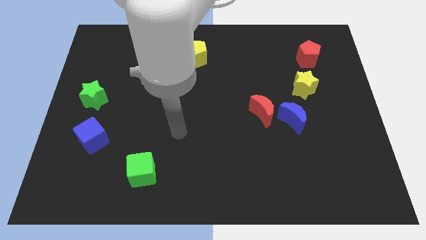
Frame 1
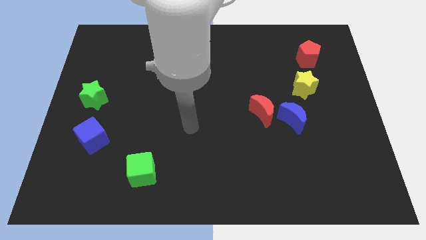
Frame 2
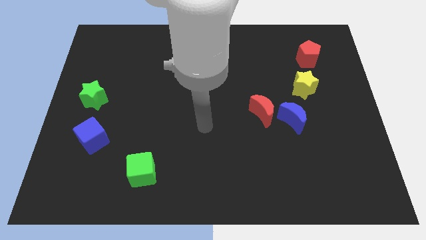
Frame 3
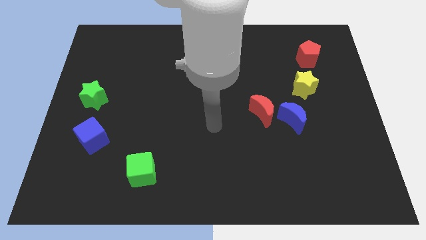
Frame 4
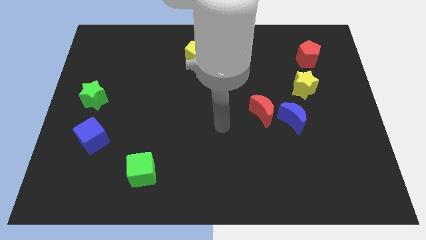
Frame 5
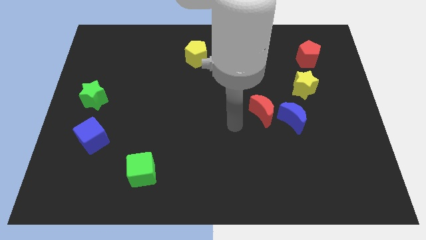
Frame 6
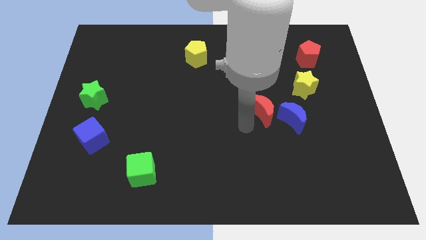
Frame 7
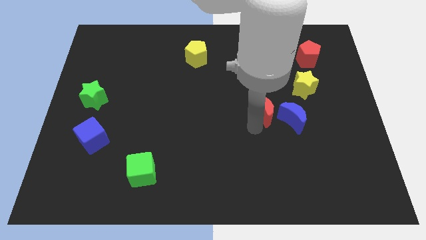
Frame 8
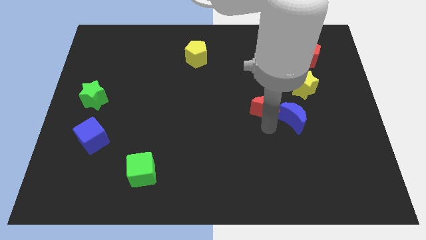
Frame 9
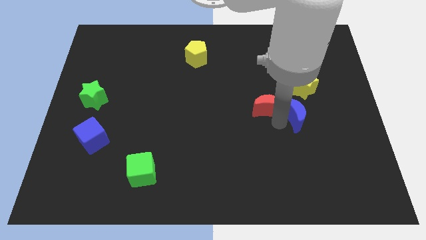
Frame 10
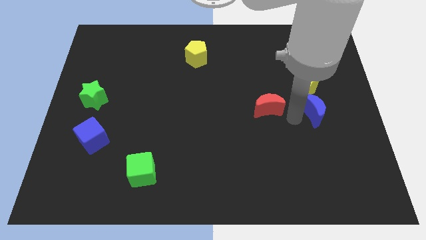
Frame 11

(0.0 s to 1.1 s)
separate the red moon from the blue moon

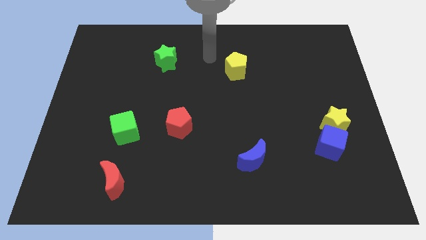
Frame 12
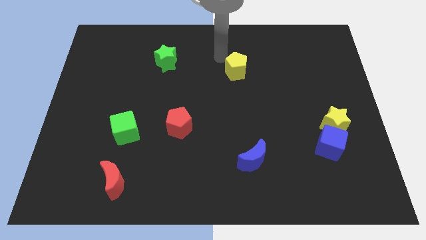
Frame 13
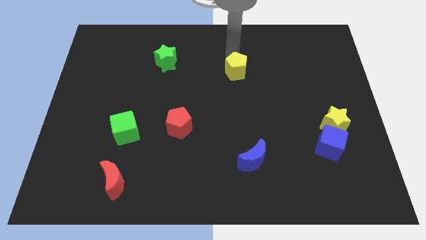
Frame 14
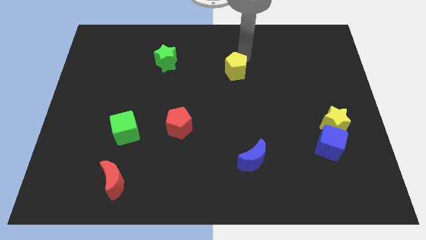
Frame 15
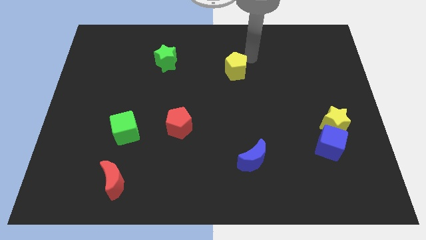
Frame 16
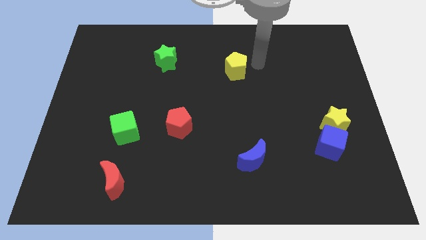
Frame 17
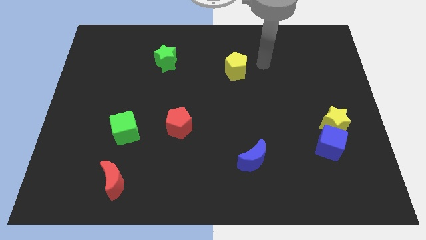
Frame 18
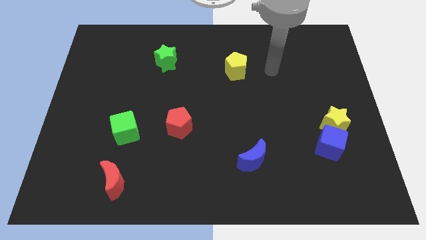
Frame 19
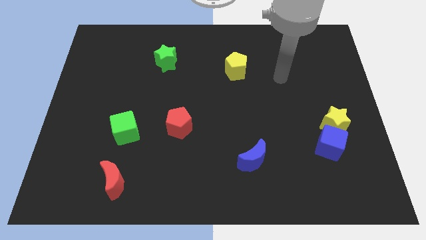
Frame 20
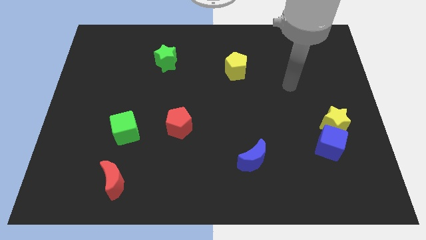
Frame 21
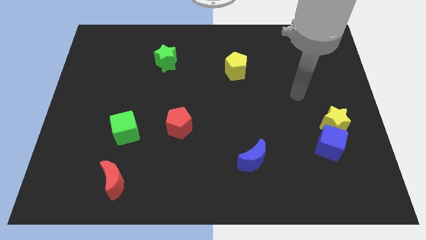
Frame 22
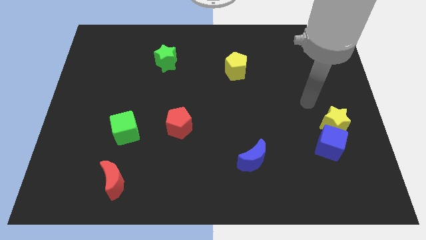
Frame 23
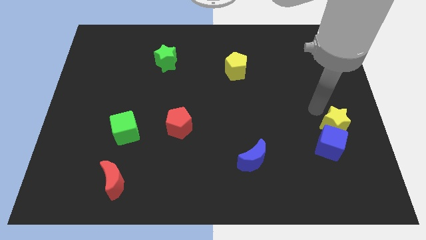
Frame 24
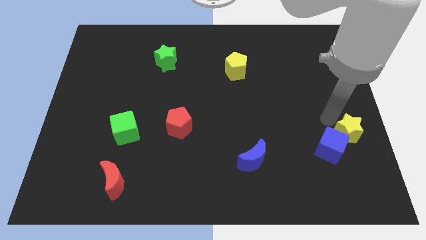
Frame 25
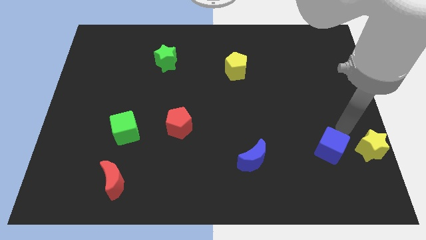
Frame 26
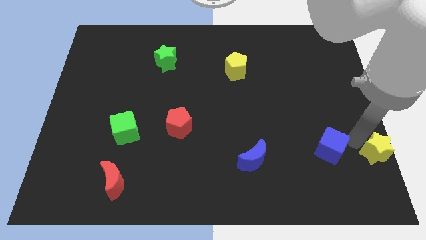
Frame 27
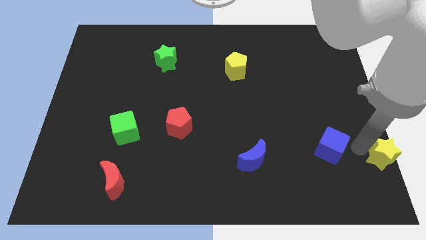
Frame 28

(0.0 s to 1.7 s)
move the blue cube away from the yellow star

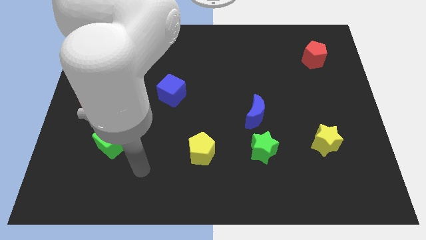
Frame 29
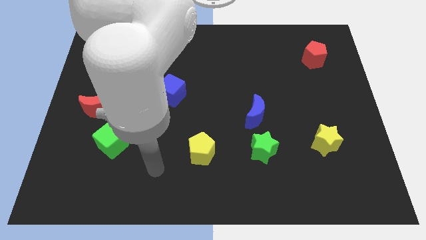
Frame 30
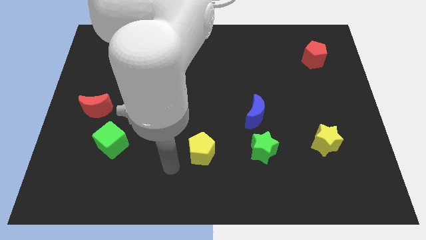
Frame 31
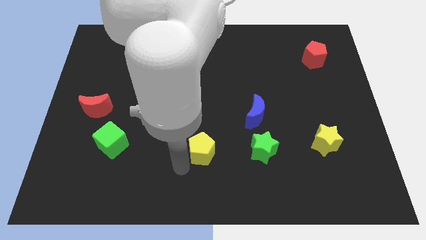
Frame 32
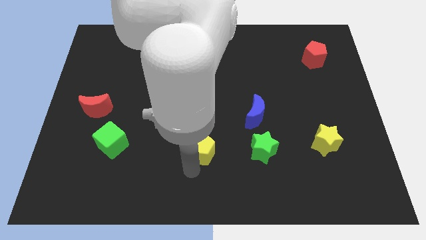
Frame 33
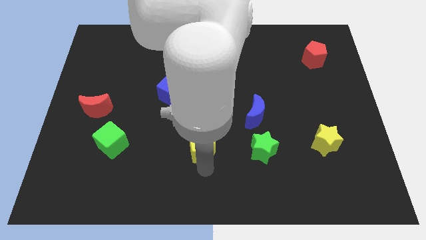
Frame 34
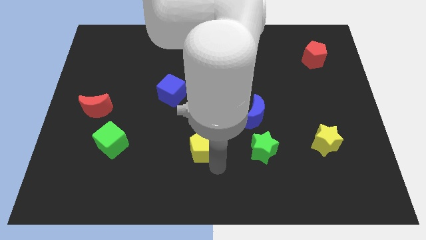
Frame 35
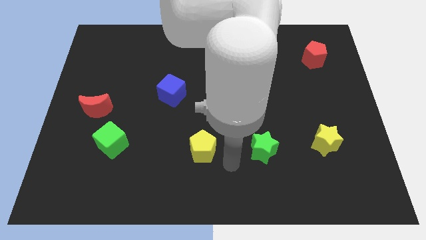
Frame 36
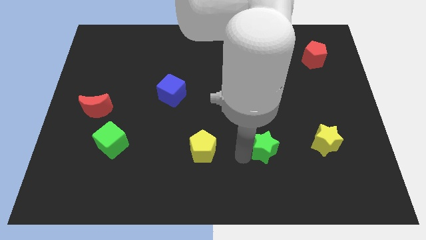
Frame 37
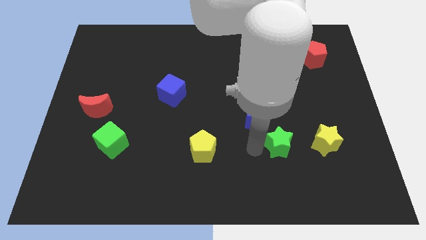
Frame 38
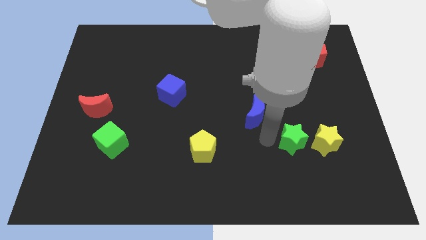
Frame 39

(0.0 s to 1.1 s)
pull the blue moon apart from the green star

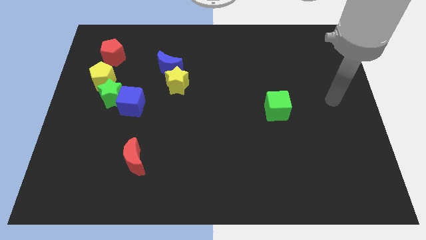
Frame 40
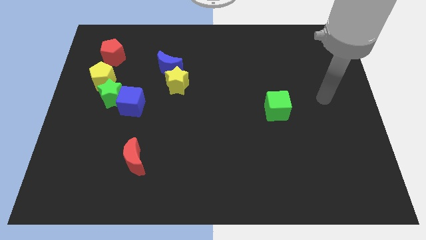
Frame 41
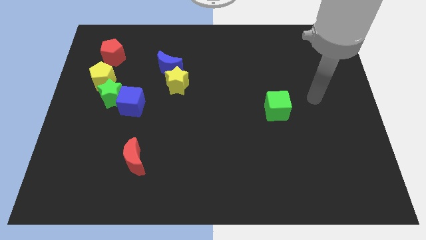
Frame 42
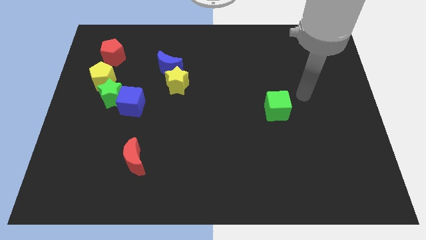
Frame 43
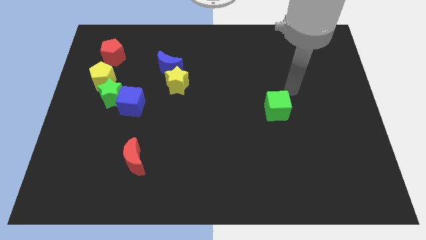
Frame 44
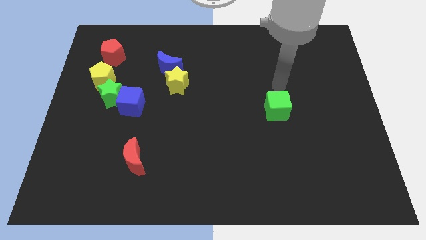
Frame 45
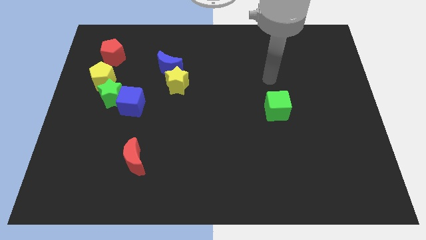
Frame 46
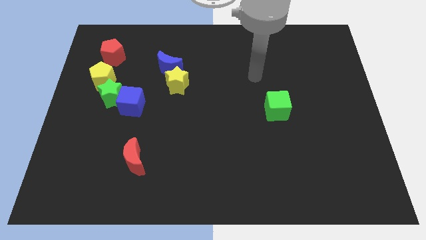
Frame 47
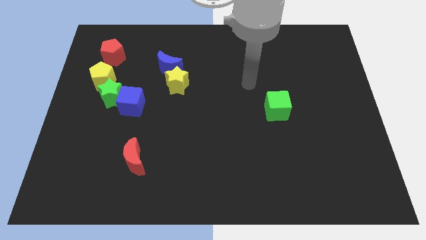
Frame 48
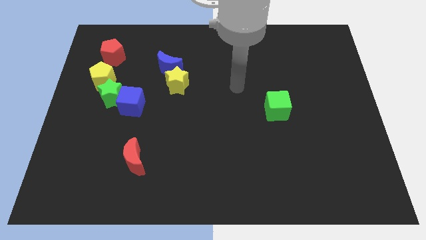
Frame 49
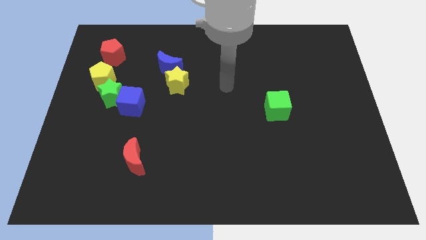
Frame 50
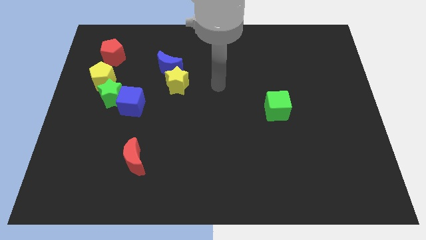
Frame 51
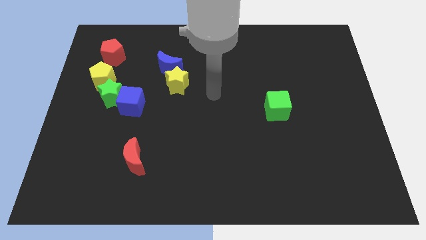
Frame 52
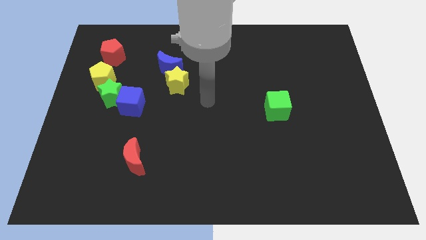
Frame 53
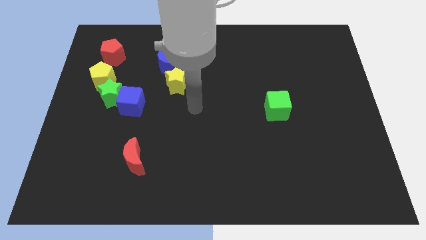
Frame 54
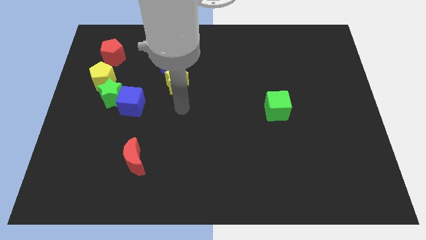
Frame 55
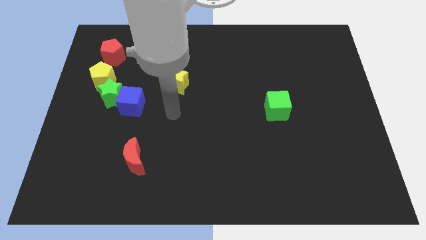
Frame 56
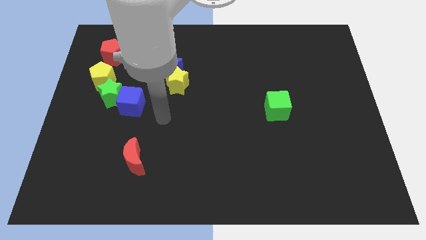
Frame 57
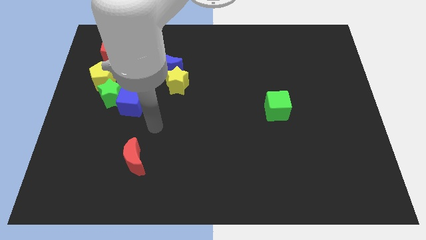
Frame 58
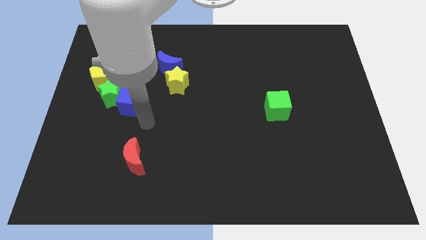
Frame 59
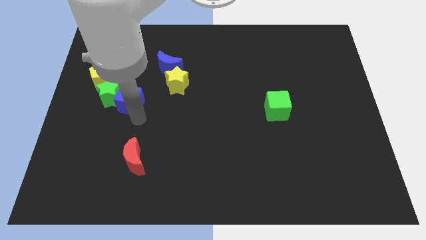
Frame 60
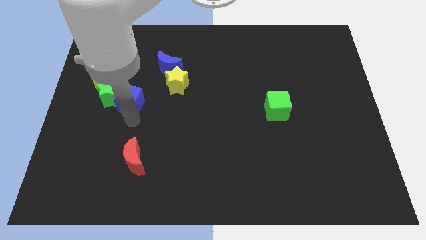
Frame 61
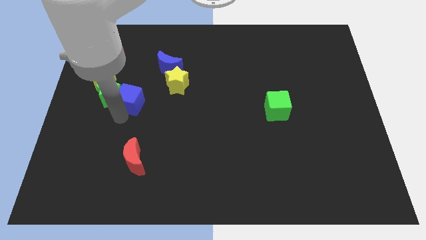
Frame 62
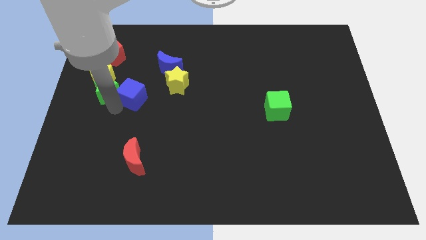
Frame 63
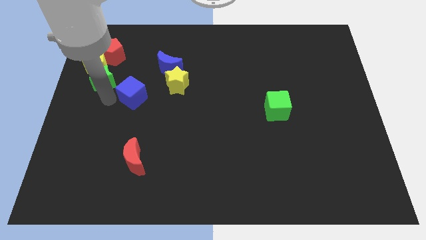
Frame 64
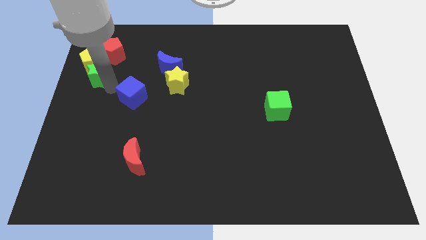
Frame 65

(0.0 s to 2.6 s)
pull the blue cube apart from the green star

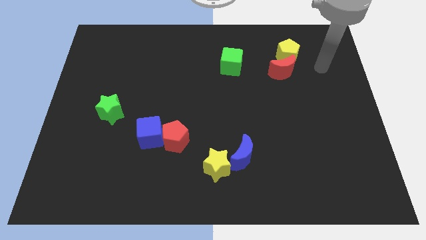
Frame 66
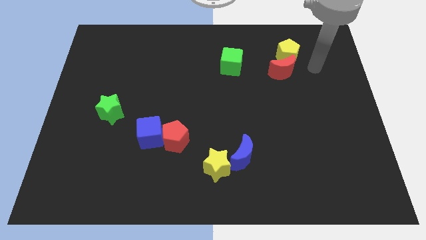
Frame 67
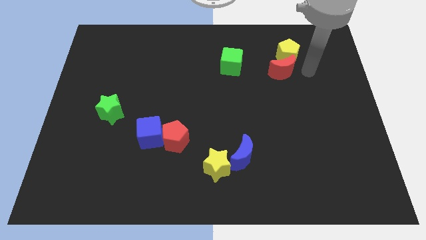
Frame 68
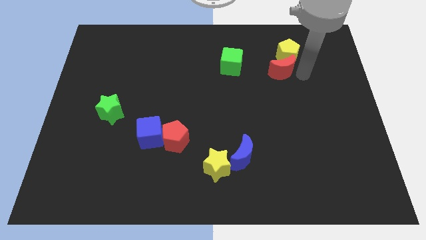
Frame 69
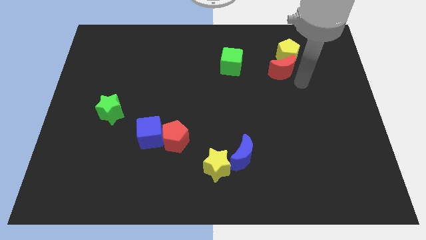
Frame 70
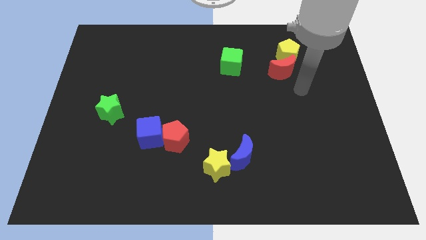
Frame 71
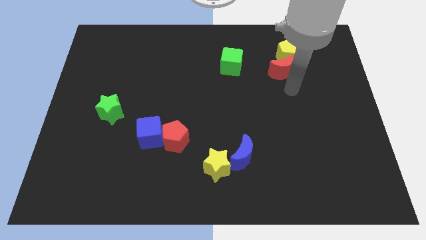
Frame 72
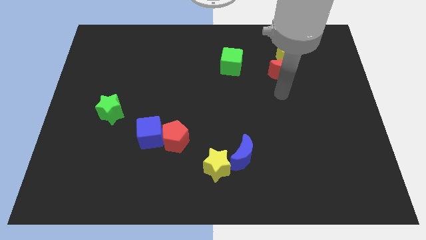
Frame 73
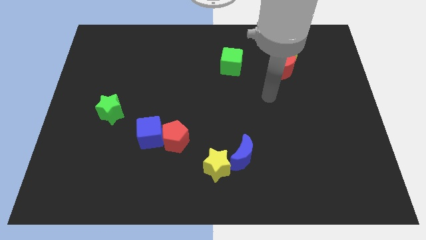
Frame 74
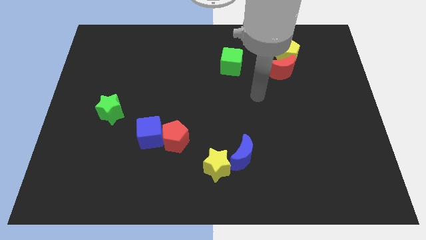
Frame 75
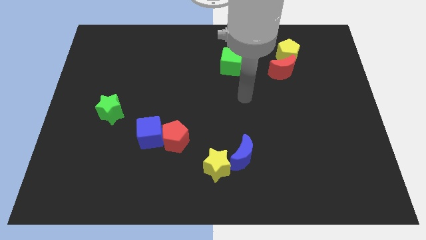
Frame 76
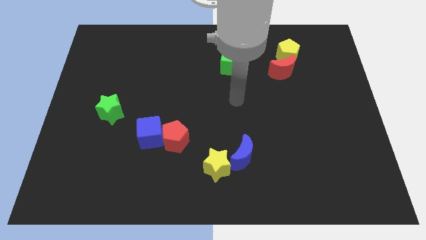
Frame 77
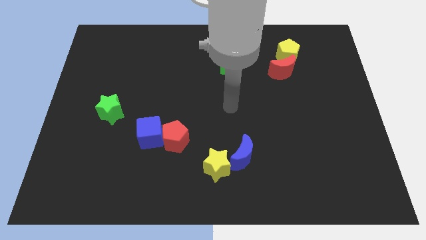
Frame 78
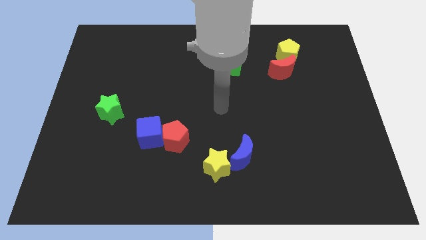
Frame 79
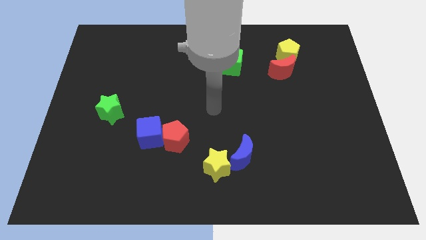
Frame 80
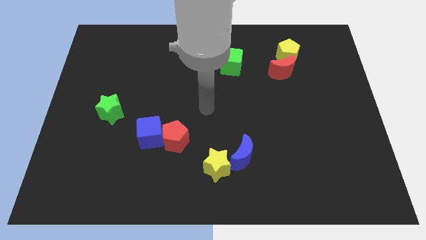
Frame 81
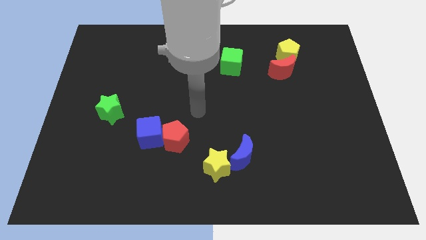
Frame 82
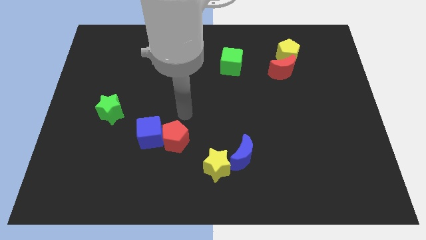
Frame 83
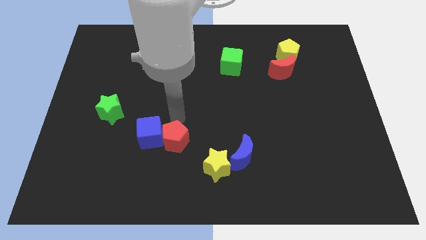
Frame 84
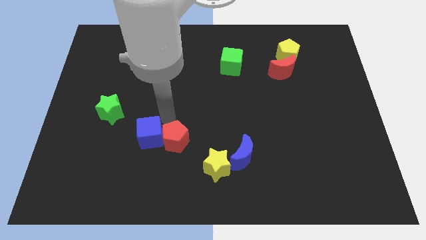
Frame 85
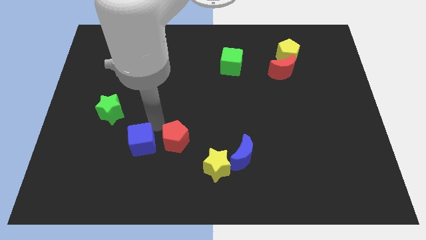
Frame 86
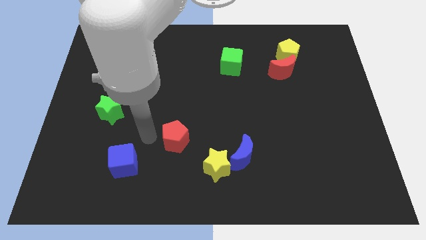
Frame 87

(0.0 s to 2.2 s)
move the red pentagon away from the blue cube

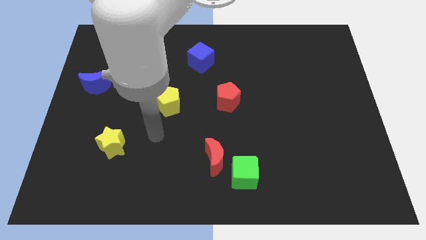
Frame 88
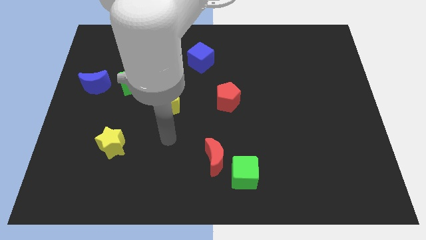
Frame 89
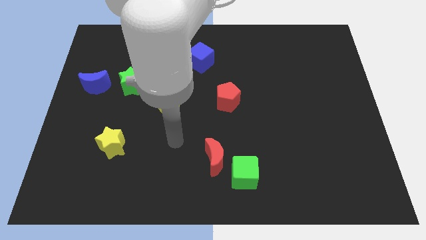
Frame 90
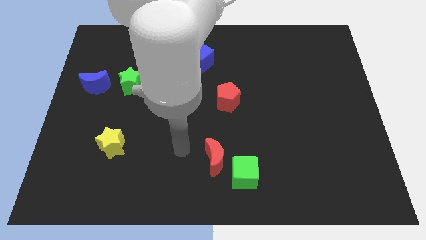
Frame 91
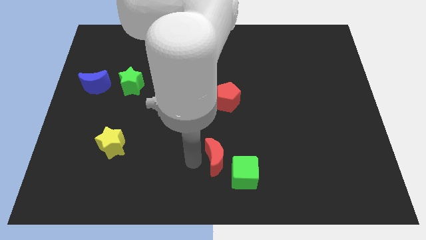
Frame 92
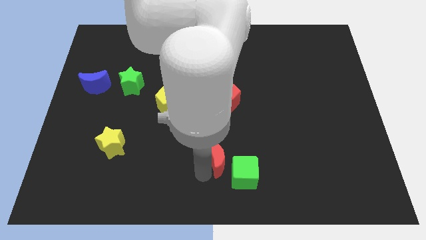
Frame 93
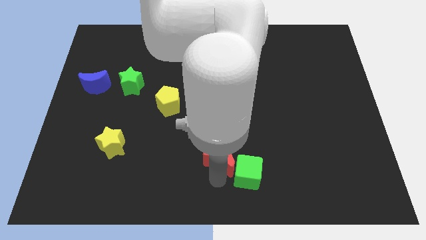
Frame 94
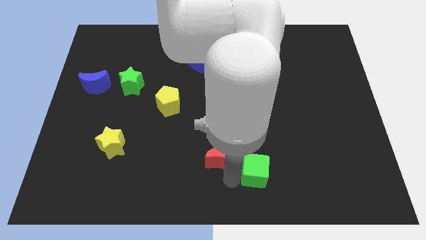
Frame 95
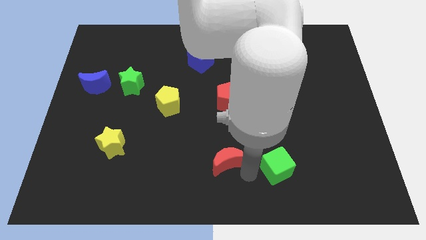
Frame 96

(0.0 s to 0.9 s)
move the red moon away from the green cube
